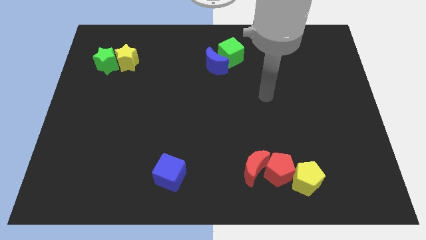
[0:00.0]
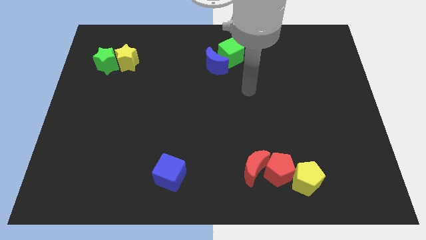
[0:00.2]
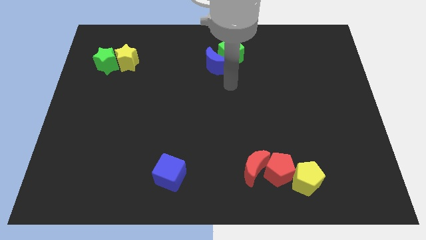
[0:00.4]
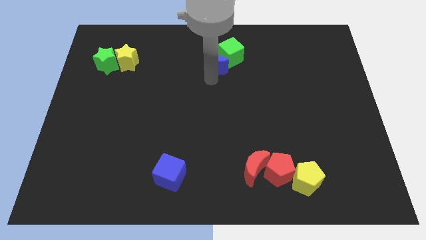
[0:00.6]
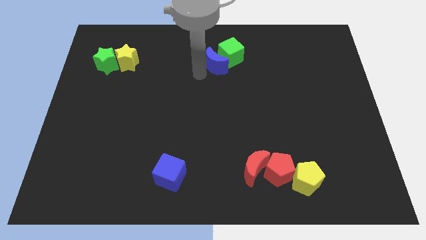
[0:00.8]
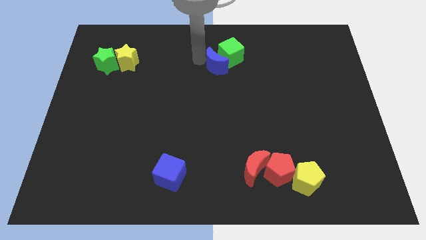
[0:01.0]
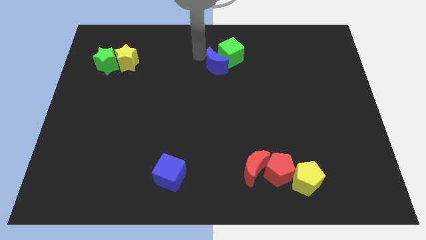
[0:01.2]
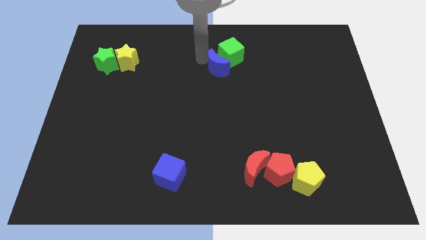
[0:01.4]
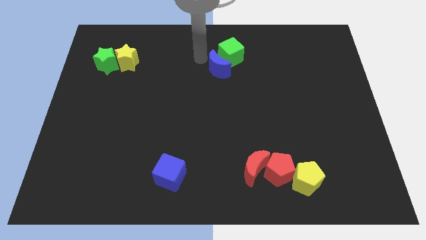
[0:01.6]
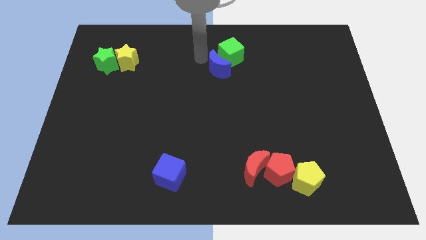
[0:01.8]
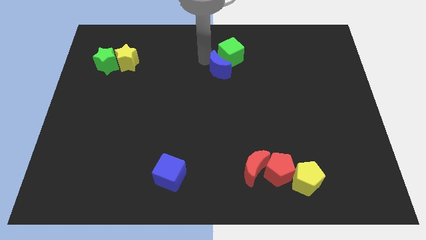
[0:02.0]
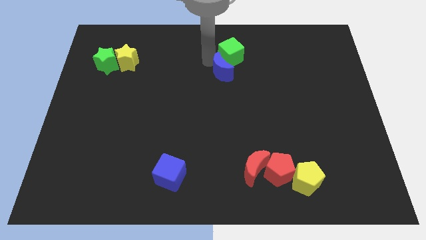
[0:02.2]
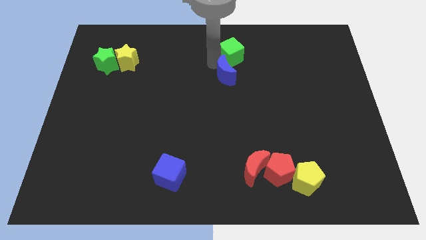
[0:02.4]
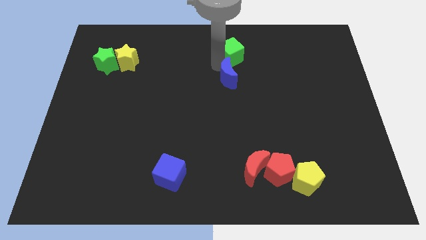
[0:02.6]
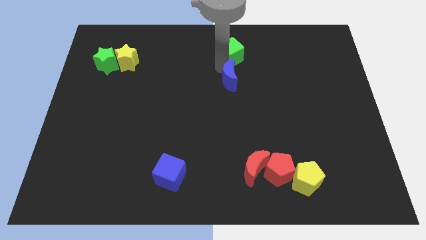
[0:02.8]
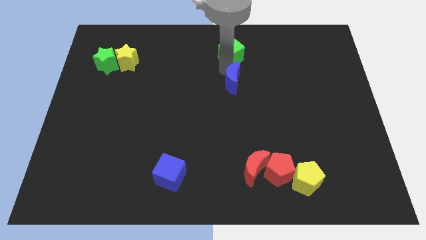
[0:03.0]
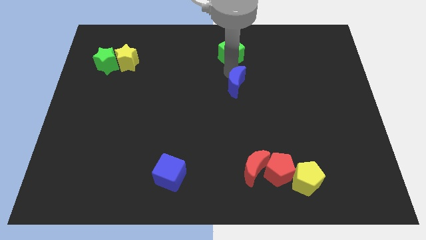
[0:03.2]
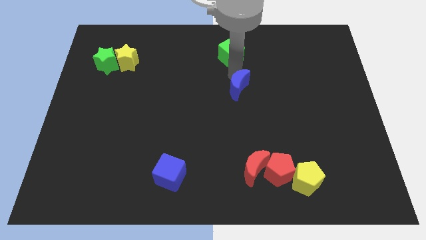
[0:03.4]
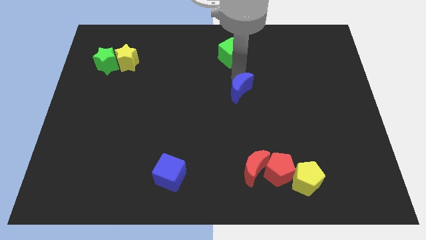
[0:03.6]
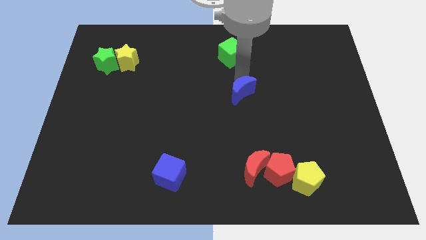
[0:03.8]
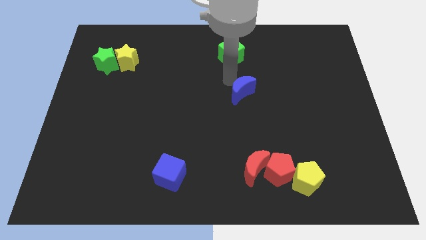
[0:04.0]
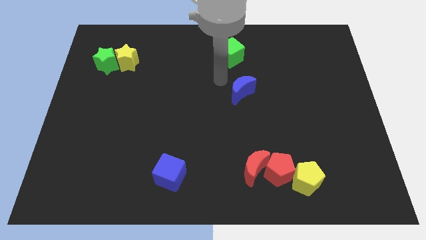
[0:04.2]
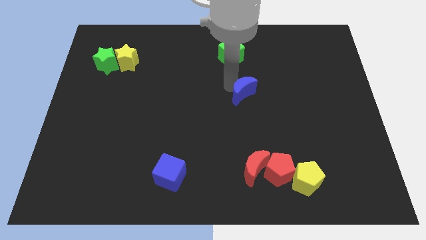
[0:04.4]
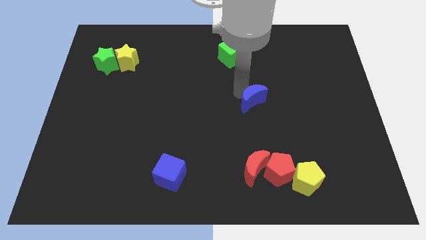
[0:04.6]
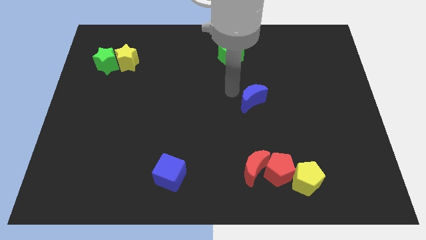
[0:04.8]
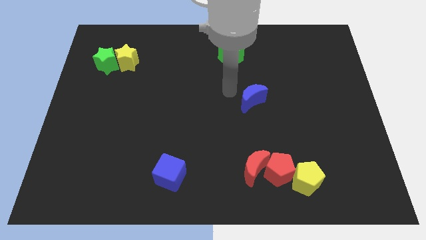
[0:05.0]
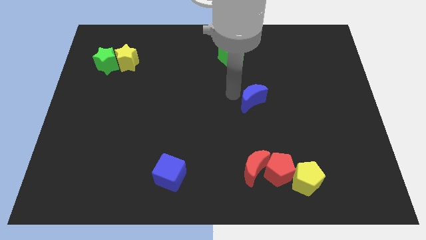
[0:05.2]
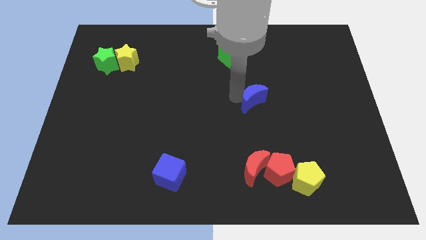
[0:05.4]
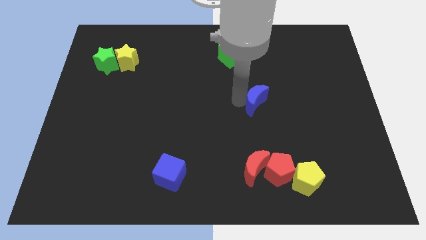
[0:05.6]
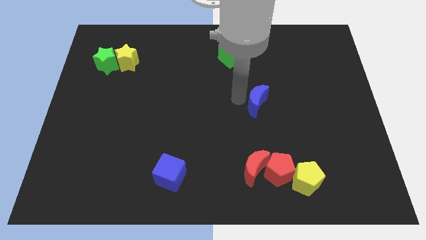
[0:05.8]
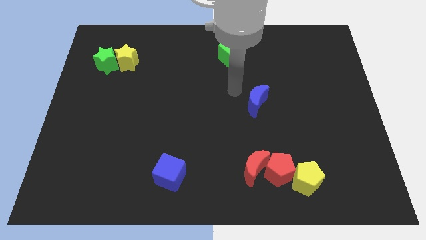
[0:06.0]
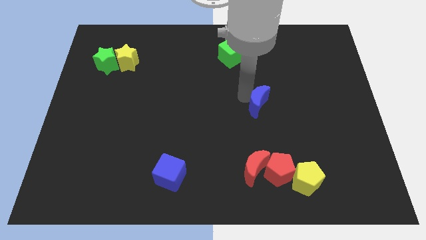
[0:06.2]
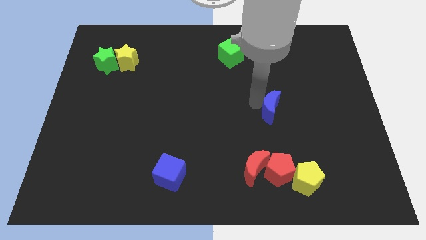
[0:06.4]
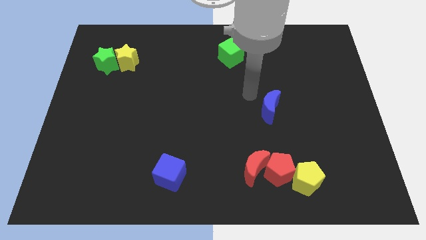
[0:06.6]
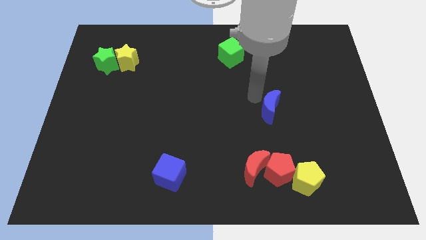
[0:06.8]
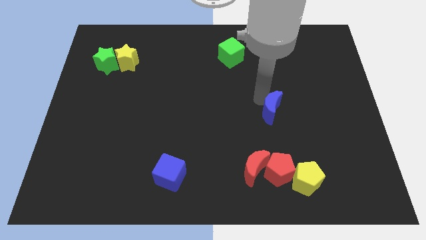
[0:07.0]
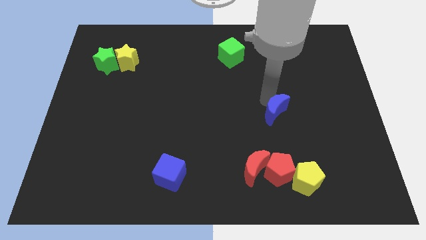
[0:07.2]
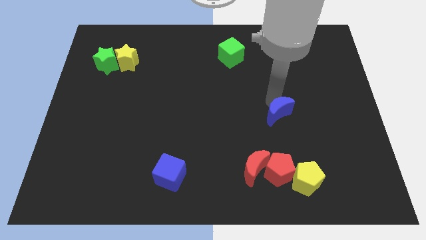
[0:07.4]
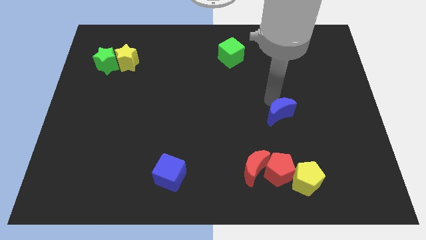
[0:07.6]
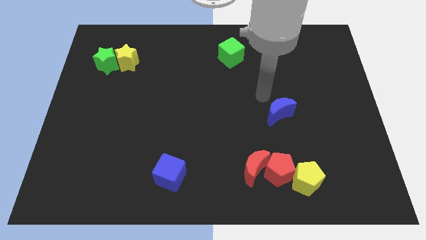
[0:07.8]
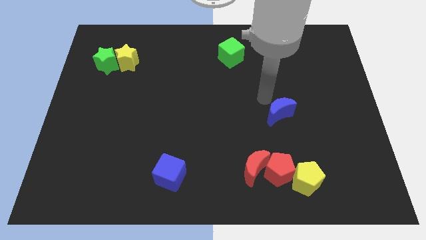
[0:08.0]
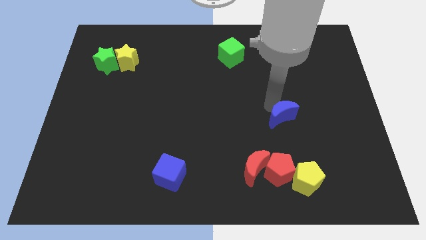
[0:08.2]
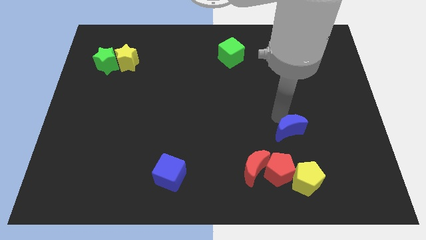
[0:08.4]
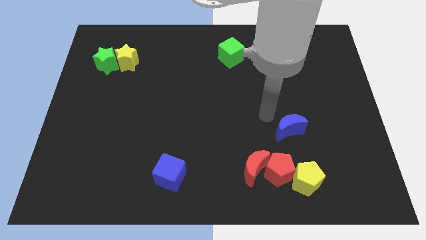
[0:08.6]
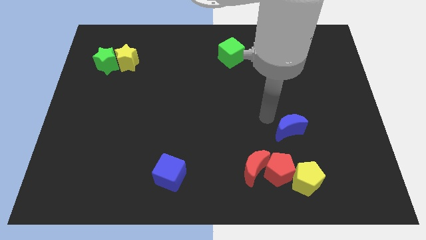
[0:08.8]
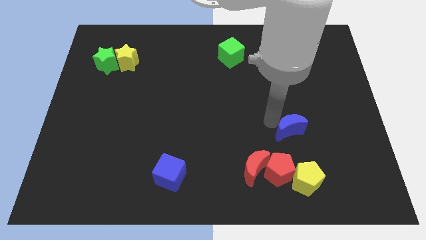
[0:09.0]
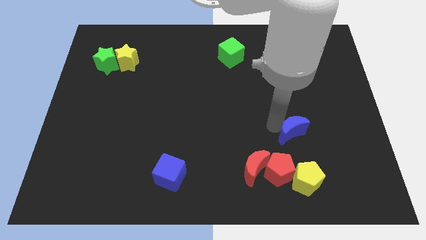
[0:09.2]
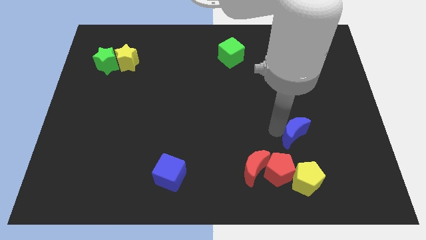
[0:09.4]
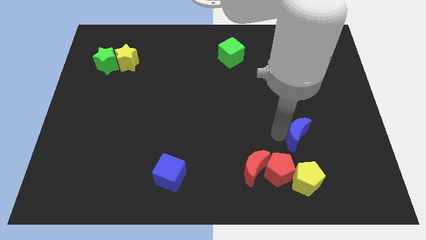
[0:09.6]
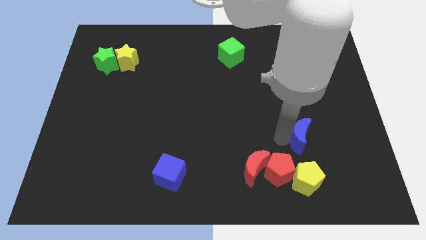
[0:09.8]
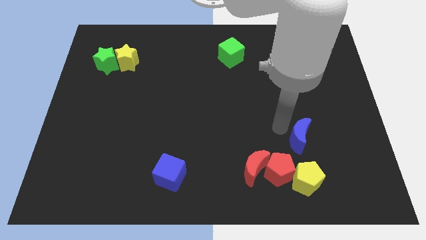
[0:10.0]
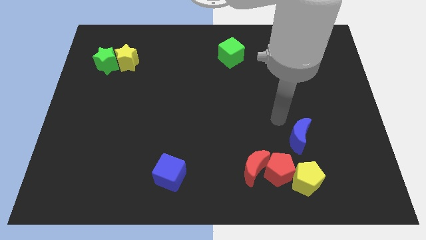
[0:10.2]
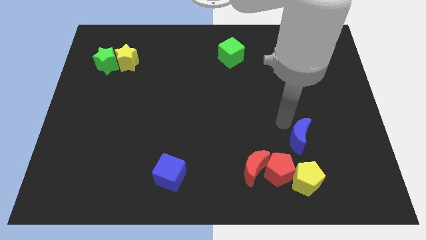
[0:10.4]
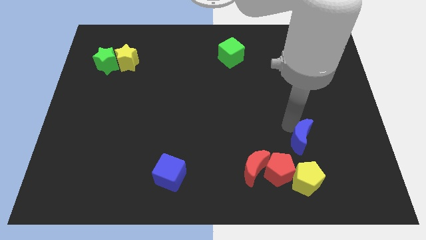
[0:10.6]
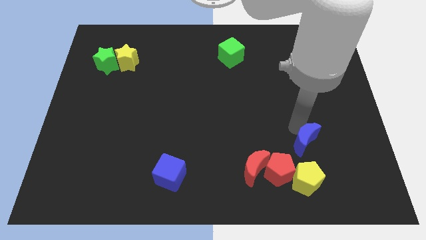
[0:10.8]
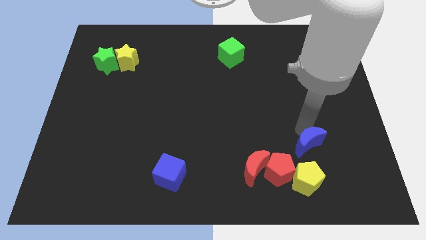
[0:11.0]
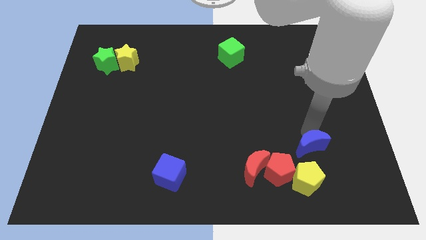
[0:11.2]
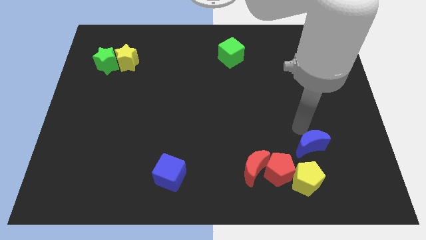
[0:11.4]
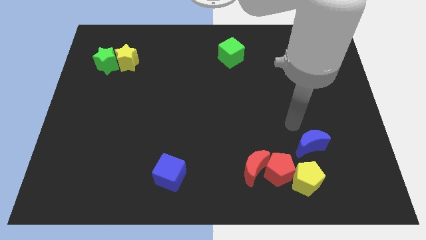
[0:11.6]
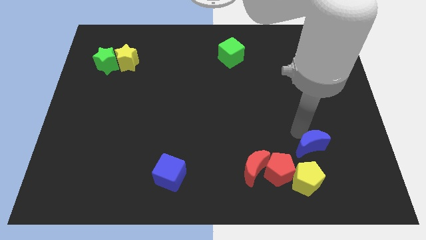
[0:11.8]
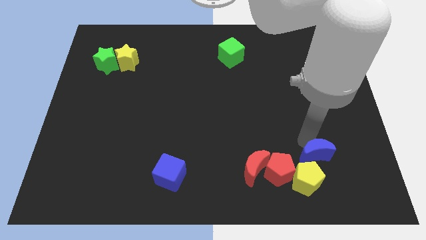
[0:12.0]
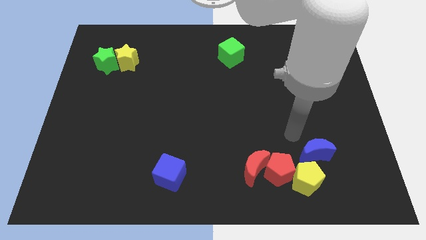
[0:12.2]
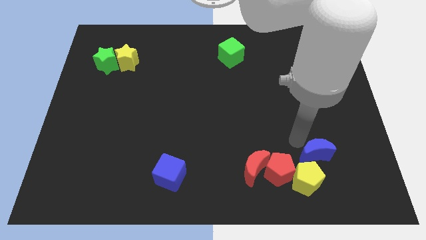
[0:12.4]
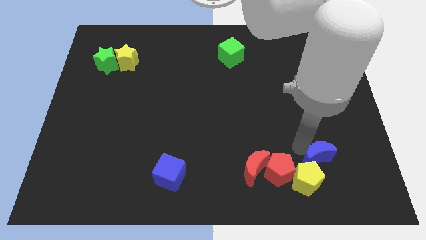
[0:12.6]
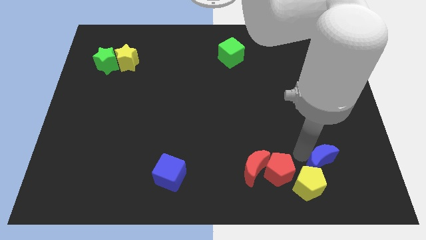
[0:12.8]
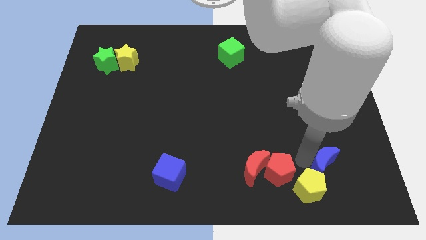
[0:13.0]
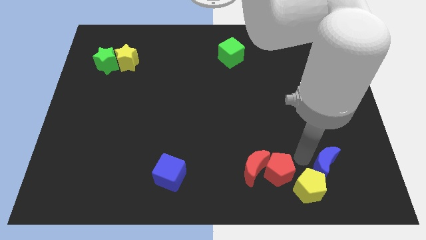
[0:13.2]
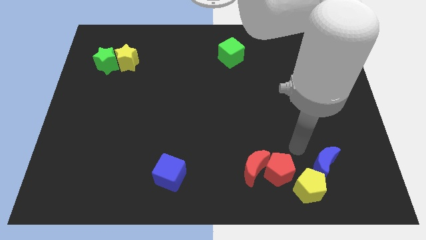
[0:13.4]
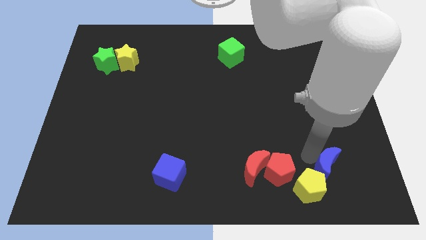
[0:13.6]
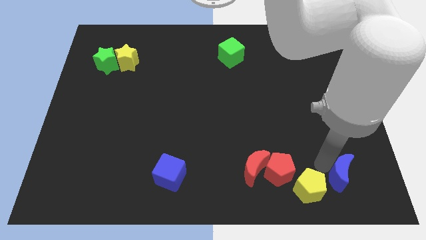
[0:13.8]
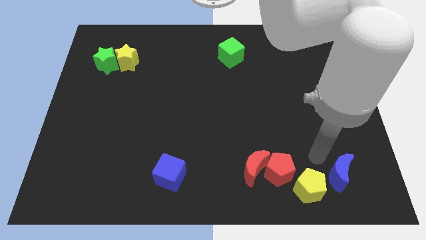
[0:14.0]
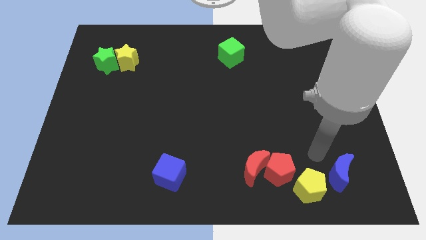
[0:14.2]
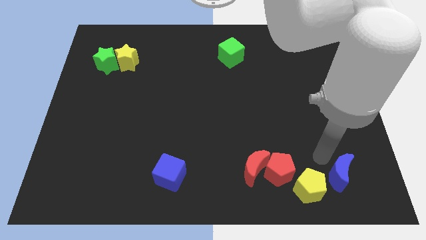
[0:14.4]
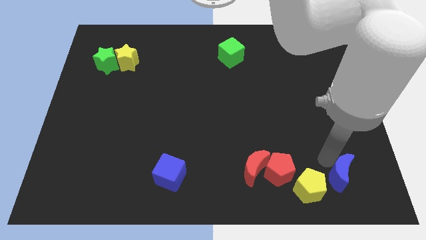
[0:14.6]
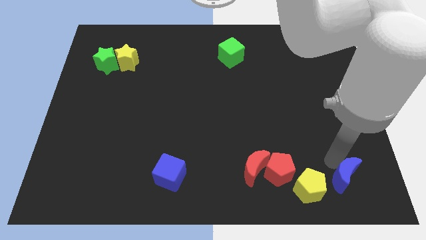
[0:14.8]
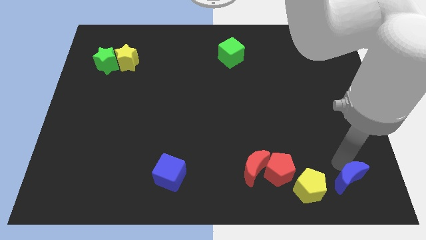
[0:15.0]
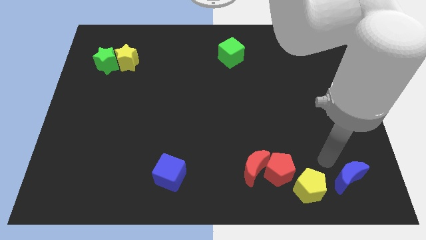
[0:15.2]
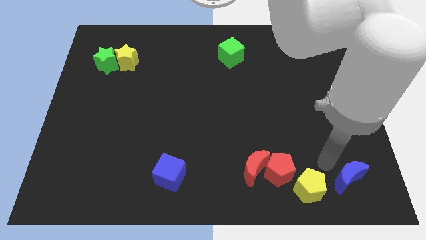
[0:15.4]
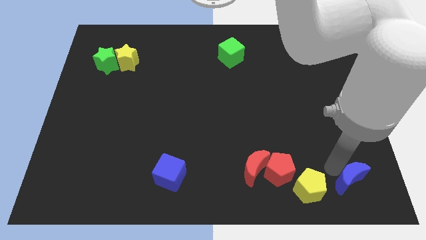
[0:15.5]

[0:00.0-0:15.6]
slide the blue moon to the bottom right
